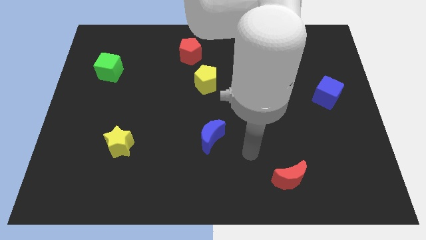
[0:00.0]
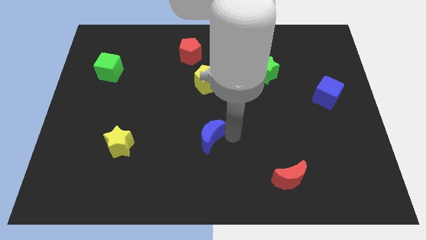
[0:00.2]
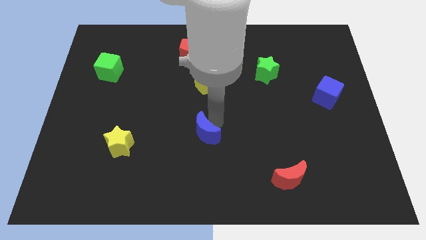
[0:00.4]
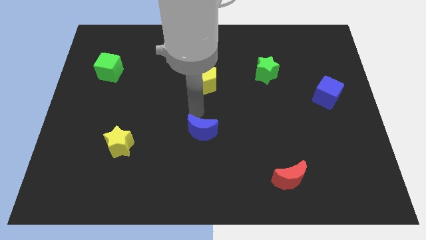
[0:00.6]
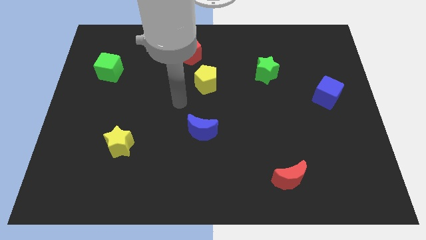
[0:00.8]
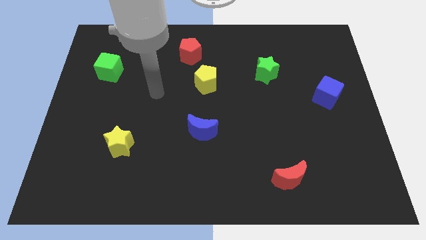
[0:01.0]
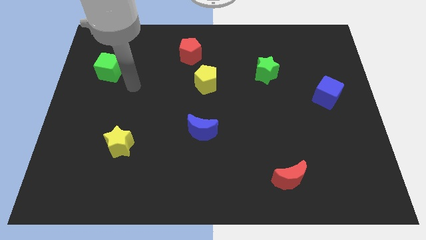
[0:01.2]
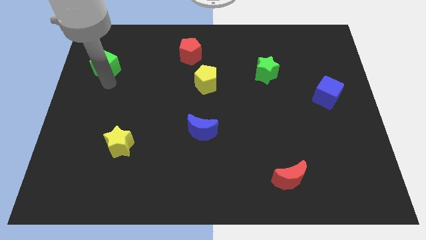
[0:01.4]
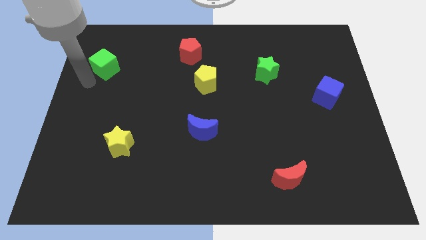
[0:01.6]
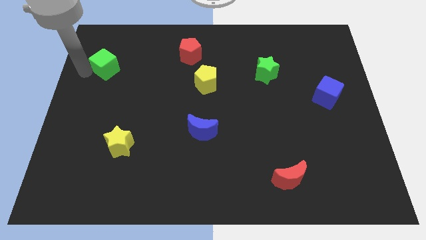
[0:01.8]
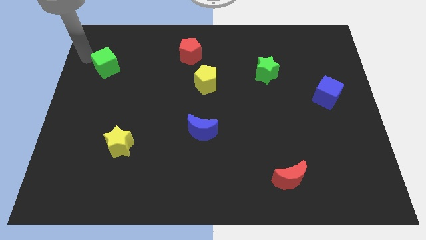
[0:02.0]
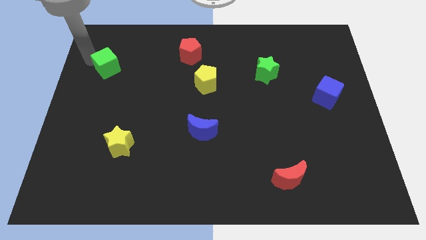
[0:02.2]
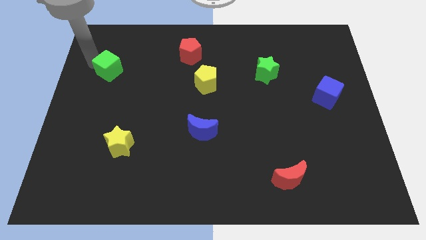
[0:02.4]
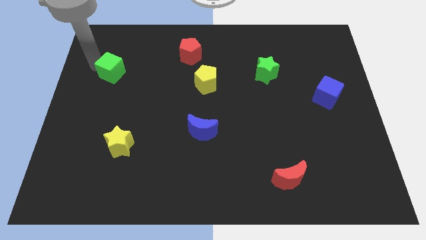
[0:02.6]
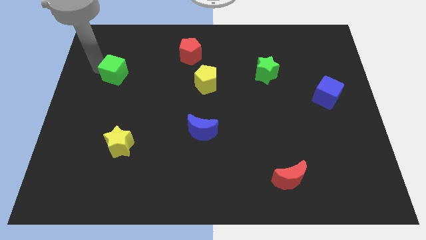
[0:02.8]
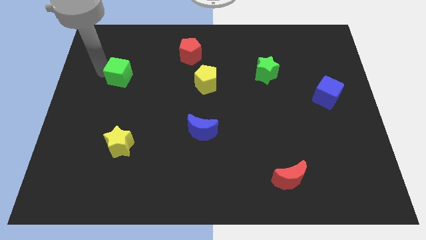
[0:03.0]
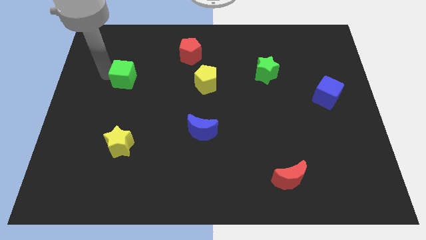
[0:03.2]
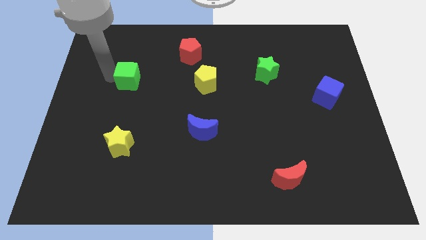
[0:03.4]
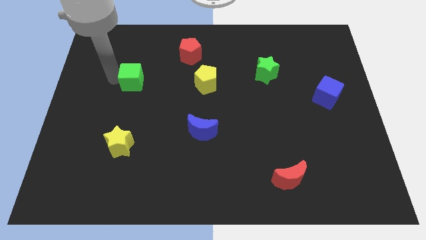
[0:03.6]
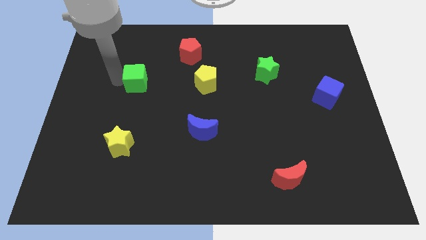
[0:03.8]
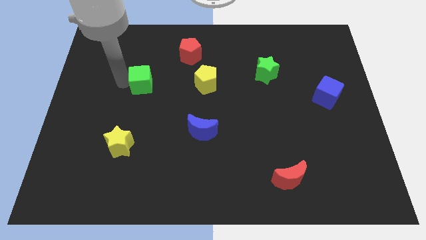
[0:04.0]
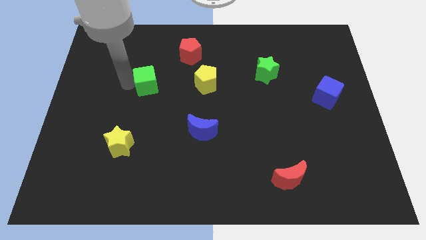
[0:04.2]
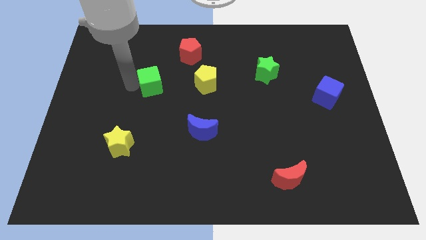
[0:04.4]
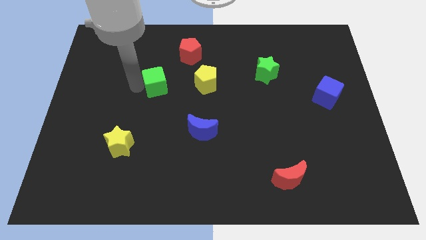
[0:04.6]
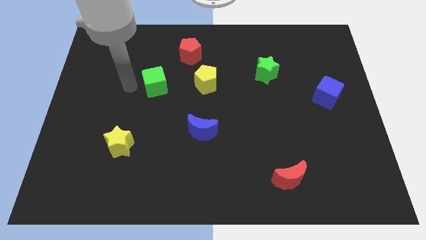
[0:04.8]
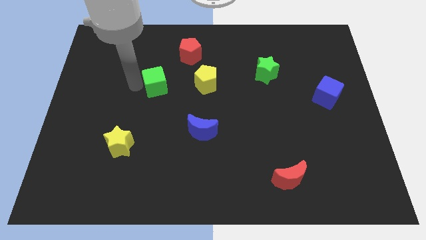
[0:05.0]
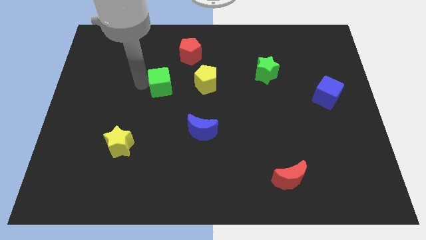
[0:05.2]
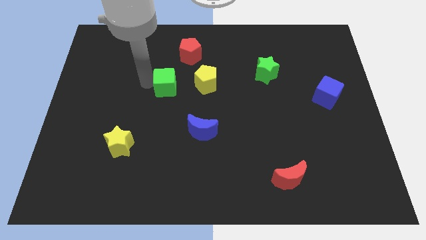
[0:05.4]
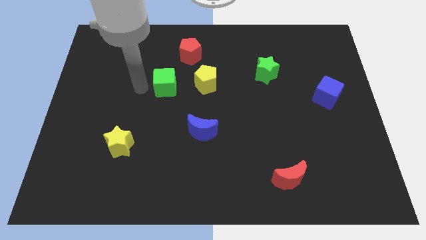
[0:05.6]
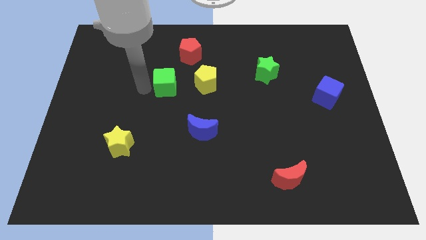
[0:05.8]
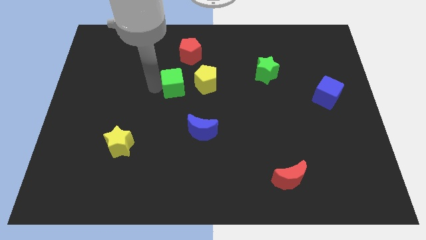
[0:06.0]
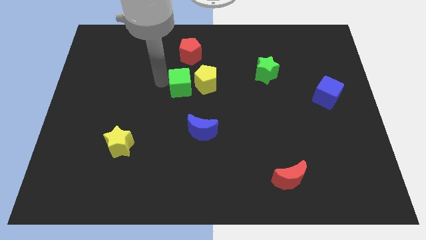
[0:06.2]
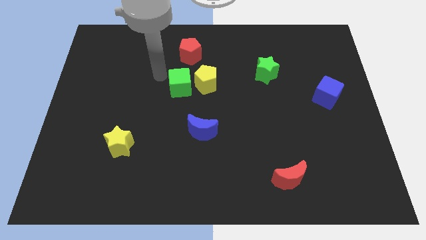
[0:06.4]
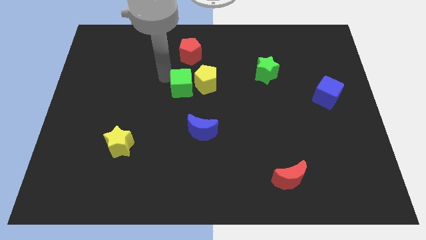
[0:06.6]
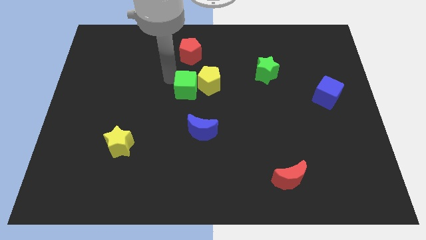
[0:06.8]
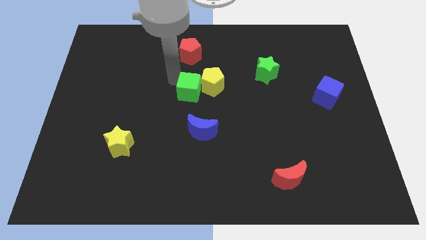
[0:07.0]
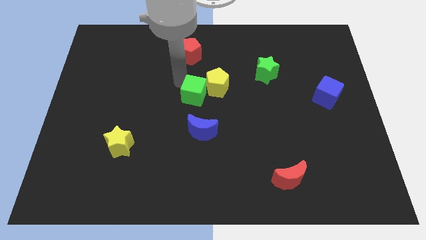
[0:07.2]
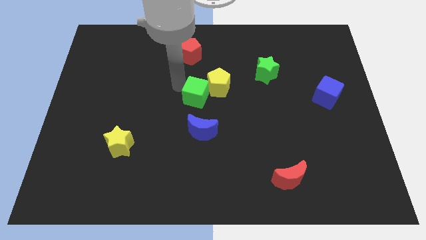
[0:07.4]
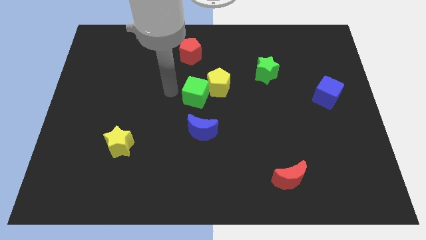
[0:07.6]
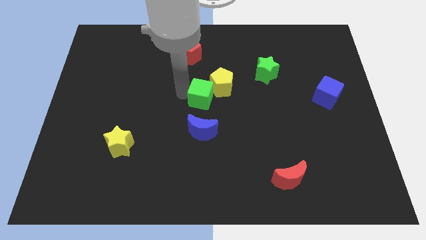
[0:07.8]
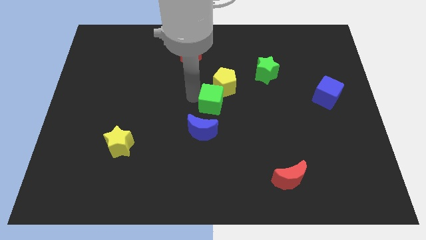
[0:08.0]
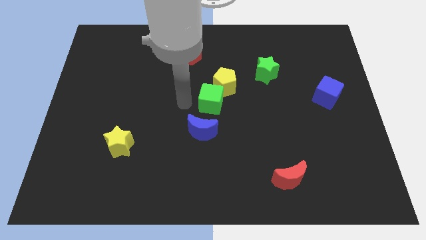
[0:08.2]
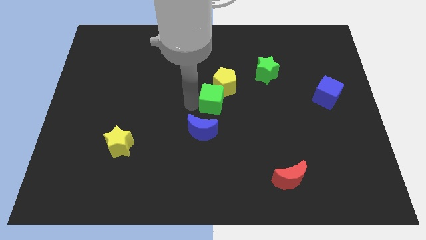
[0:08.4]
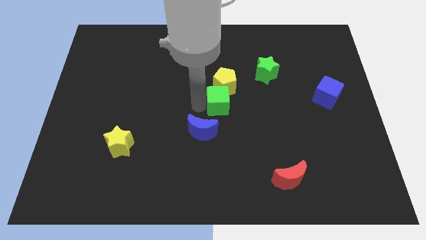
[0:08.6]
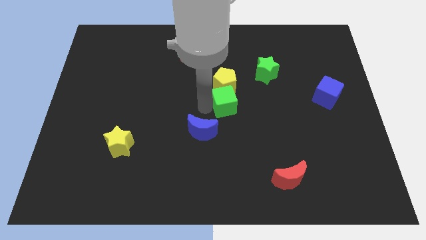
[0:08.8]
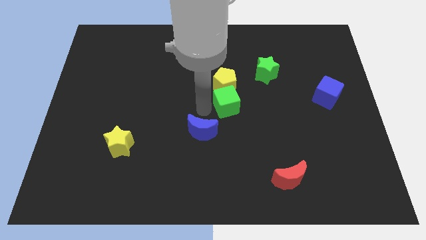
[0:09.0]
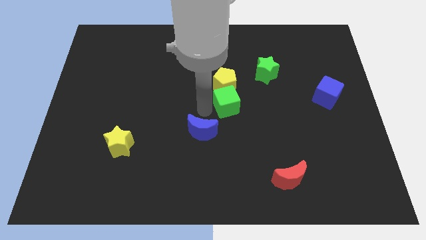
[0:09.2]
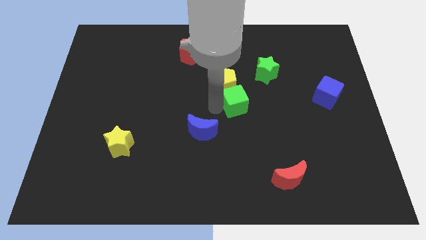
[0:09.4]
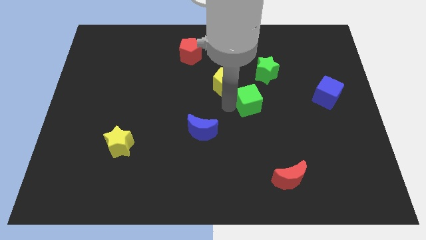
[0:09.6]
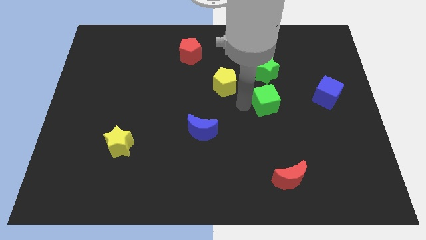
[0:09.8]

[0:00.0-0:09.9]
push the green cube to the left side of the blue cube

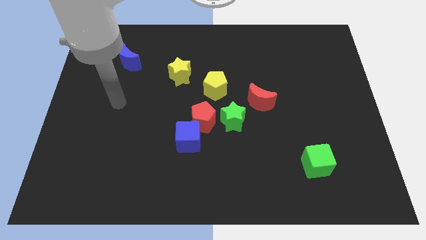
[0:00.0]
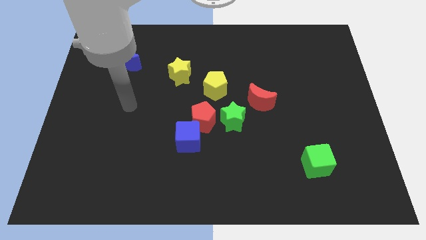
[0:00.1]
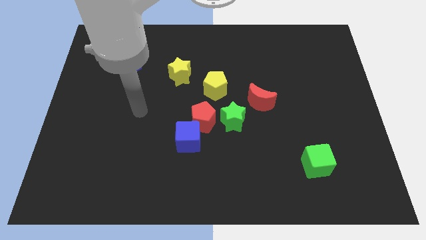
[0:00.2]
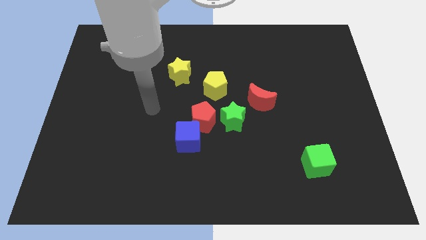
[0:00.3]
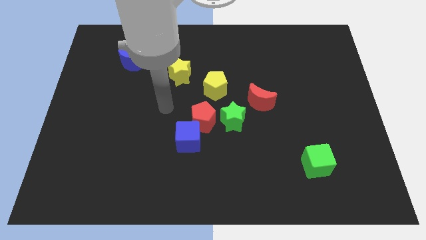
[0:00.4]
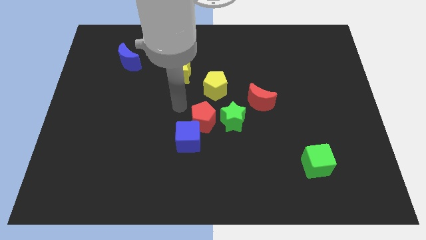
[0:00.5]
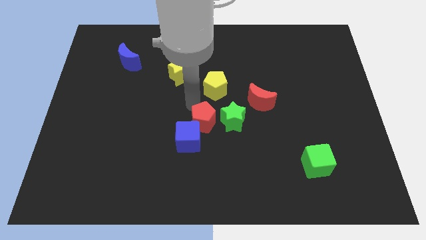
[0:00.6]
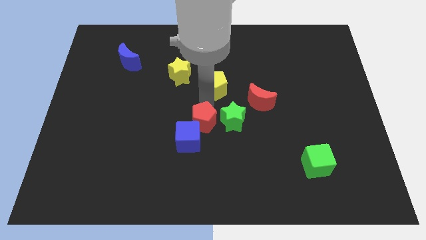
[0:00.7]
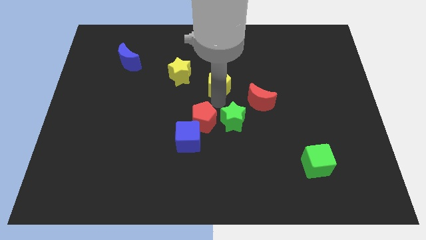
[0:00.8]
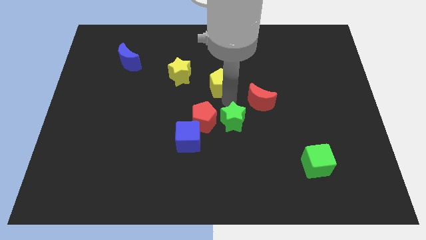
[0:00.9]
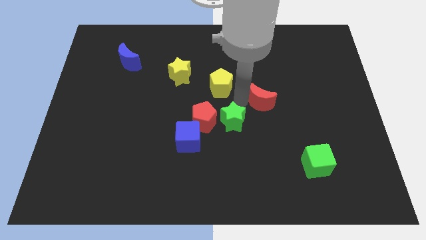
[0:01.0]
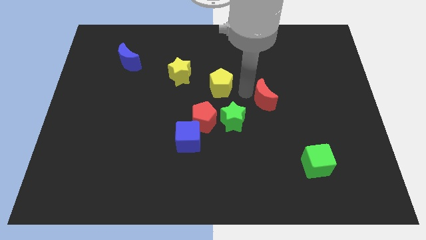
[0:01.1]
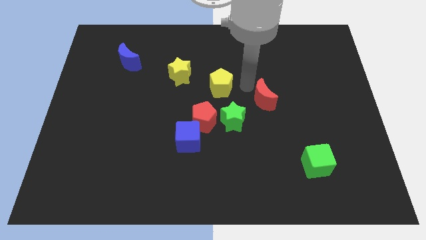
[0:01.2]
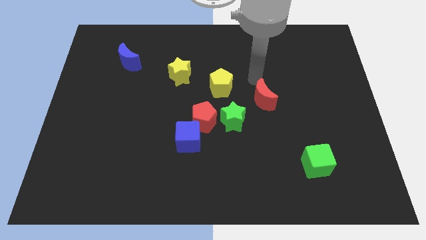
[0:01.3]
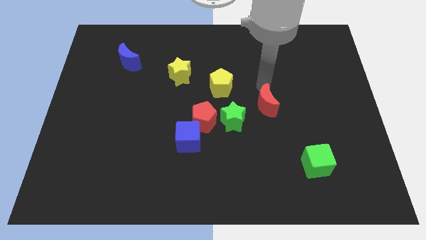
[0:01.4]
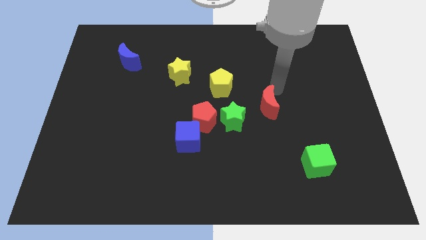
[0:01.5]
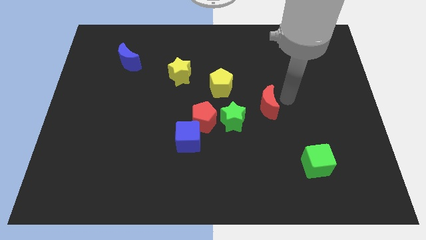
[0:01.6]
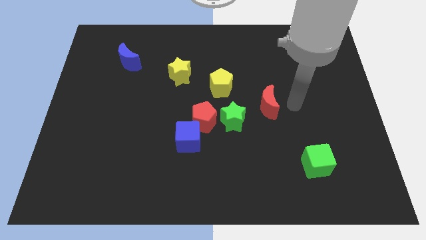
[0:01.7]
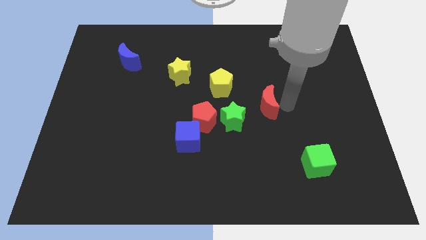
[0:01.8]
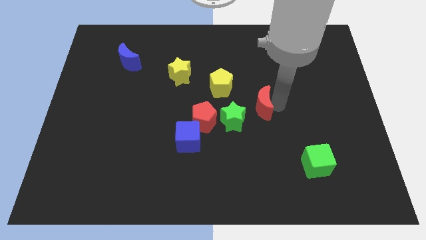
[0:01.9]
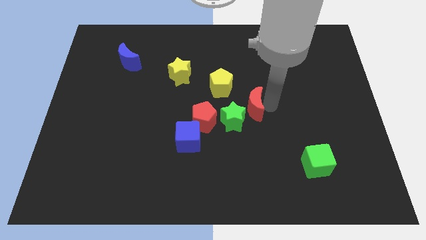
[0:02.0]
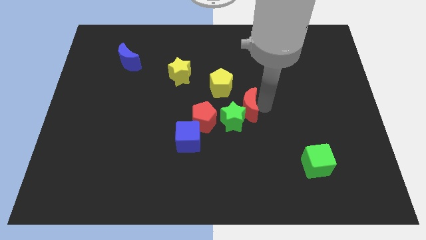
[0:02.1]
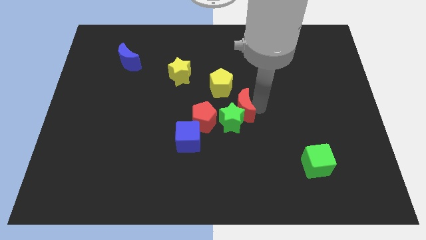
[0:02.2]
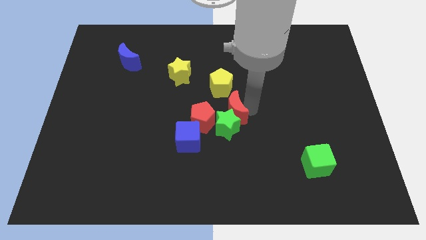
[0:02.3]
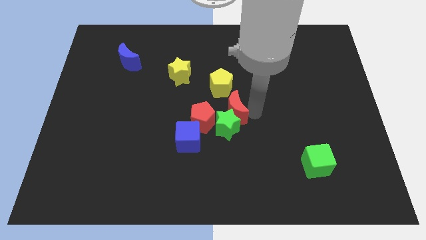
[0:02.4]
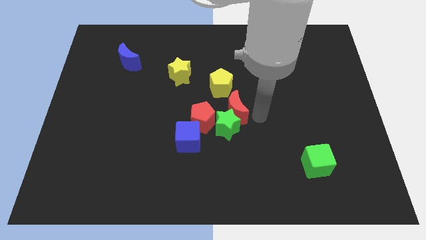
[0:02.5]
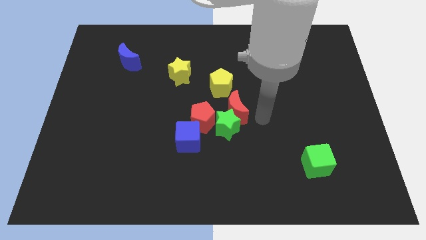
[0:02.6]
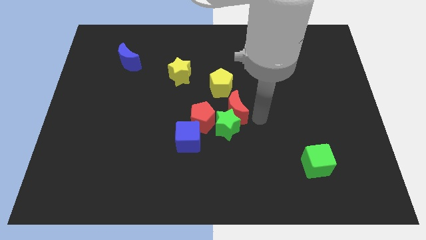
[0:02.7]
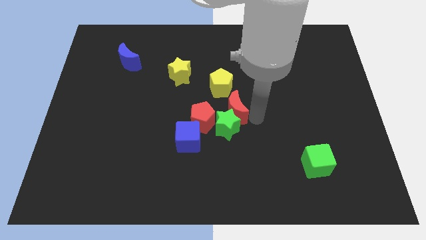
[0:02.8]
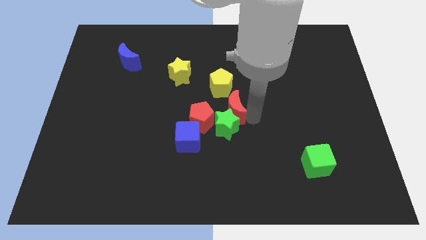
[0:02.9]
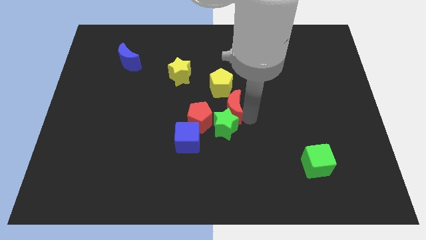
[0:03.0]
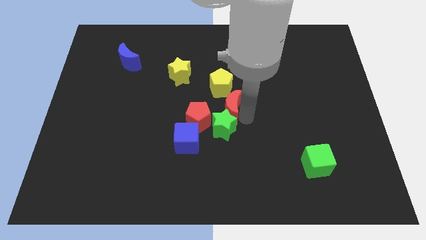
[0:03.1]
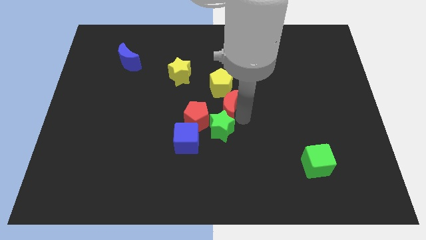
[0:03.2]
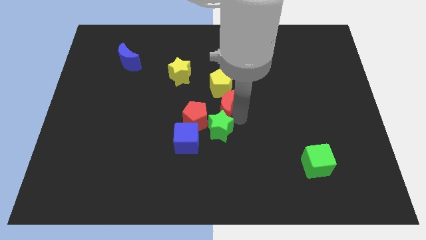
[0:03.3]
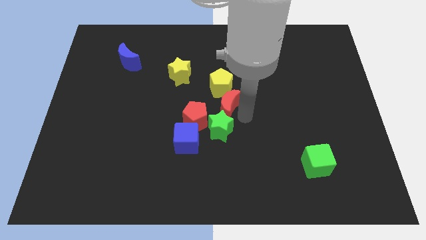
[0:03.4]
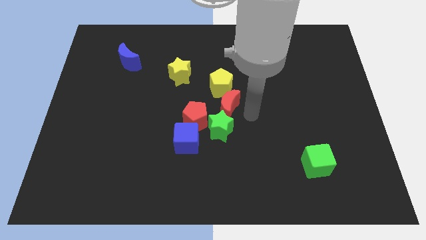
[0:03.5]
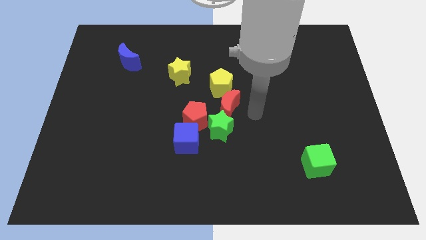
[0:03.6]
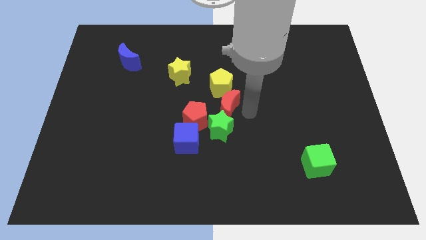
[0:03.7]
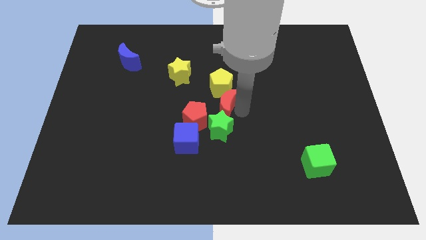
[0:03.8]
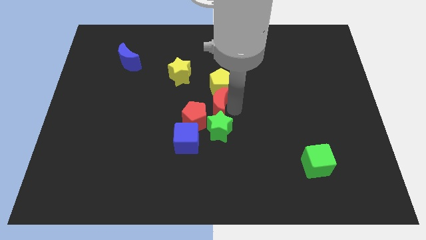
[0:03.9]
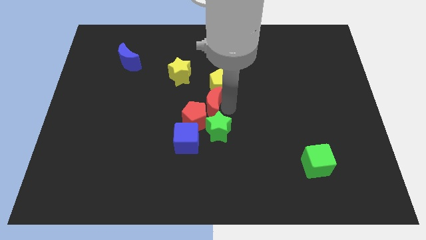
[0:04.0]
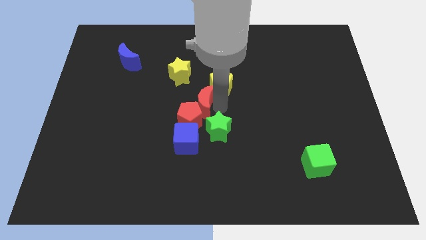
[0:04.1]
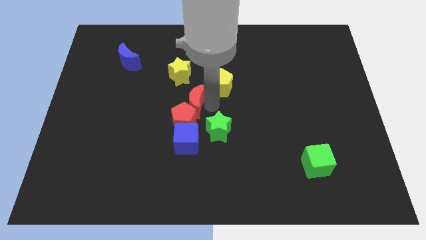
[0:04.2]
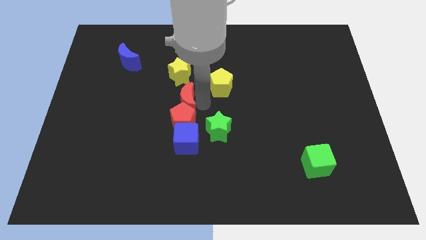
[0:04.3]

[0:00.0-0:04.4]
push the red moon diagonally up and to the left of the red pentagon
